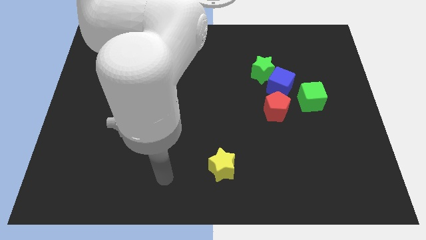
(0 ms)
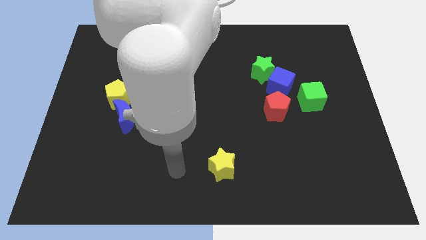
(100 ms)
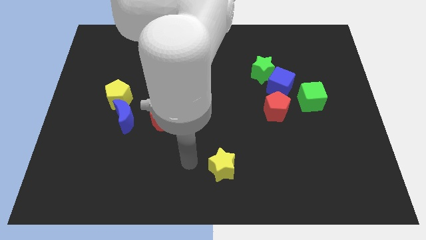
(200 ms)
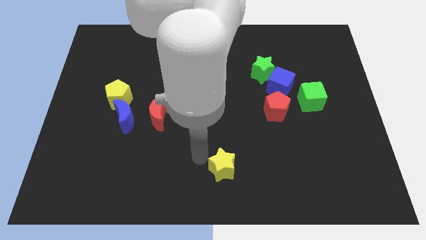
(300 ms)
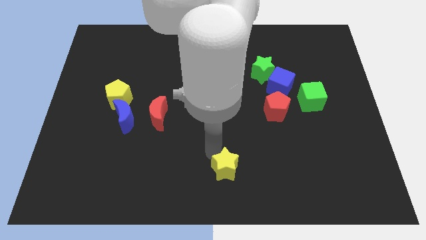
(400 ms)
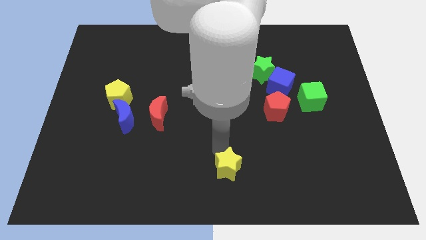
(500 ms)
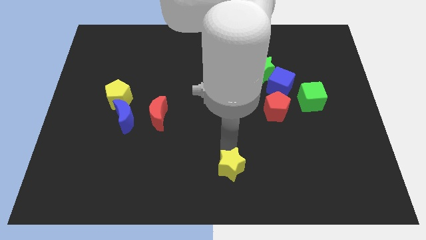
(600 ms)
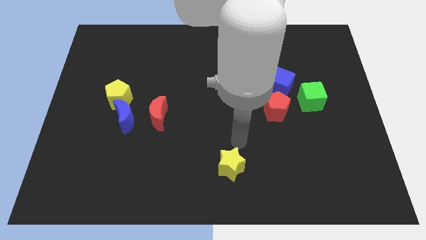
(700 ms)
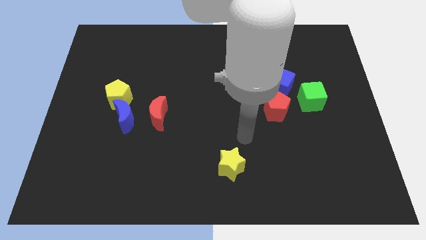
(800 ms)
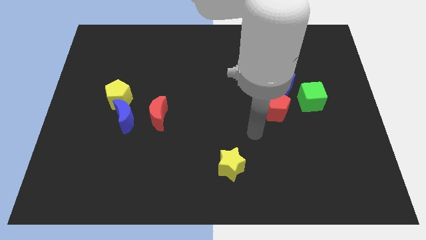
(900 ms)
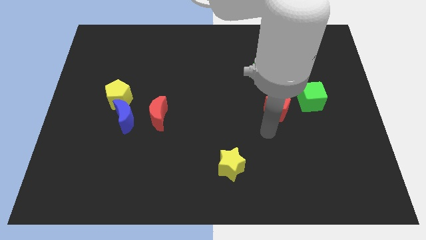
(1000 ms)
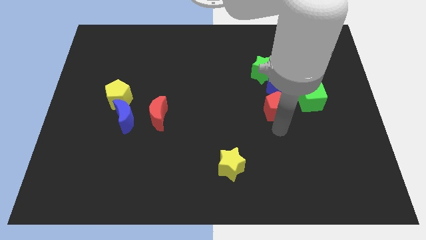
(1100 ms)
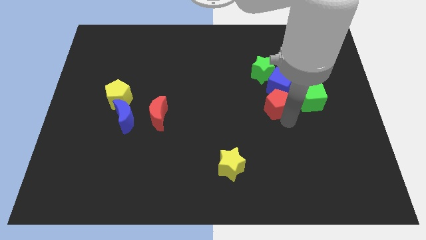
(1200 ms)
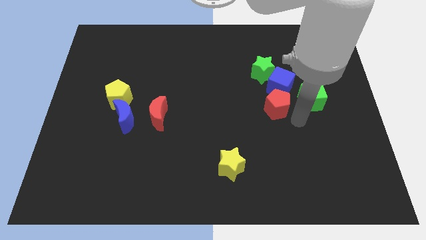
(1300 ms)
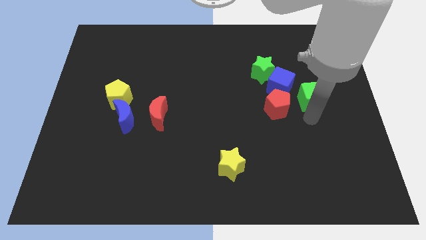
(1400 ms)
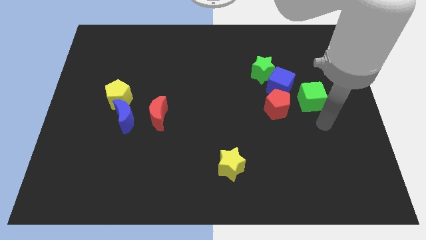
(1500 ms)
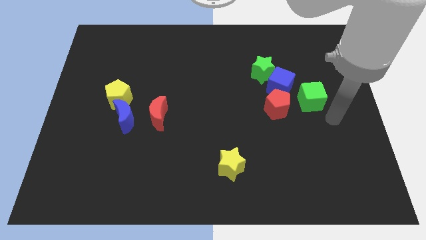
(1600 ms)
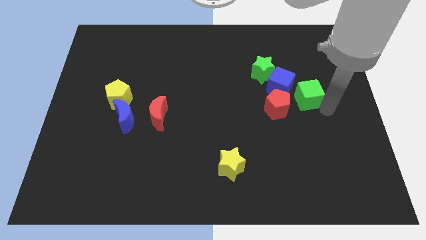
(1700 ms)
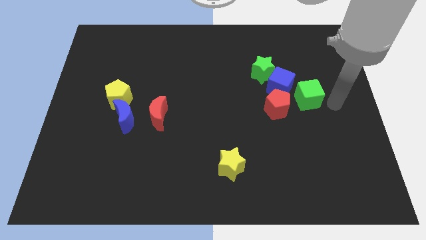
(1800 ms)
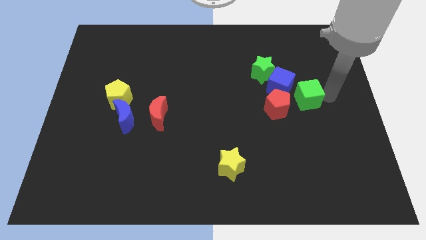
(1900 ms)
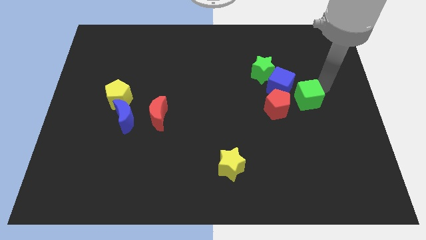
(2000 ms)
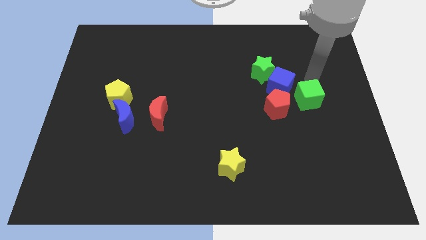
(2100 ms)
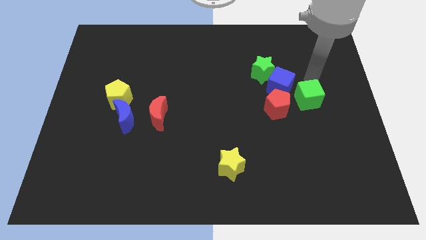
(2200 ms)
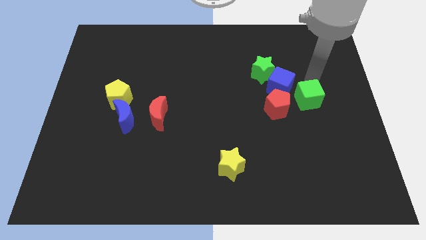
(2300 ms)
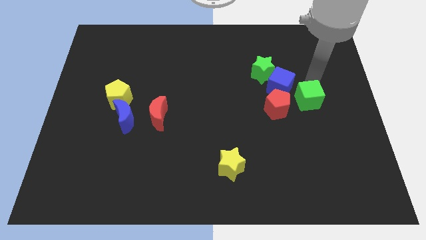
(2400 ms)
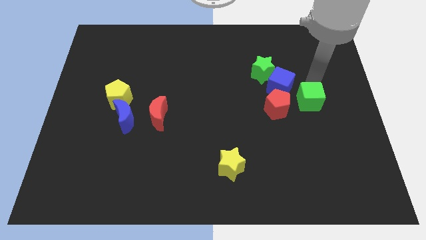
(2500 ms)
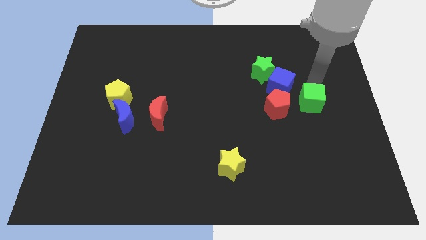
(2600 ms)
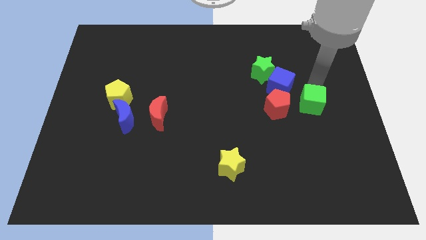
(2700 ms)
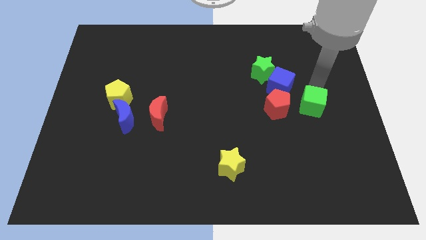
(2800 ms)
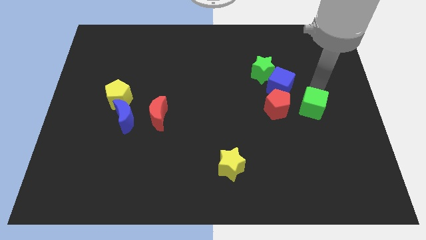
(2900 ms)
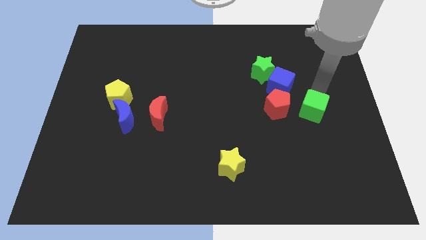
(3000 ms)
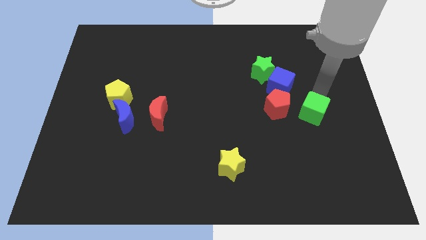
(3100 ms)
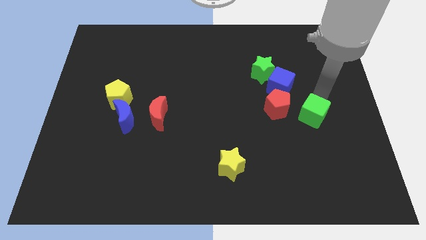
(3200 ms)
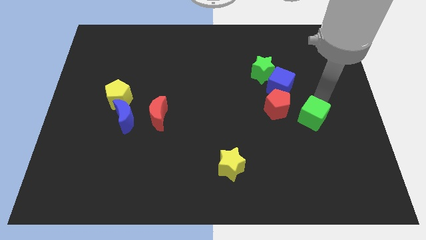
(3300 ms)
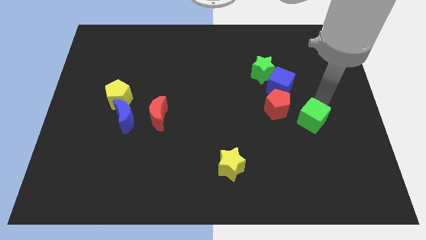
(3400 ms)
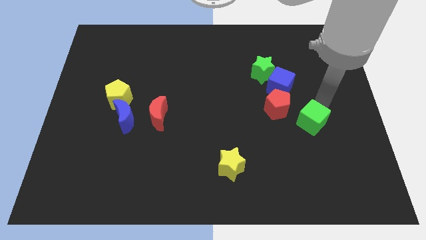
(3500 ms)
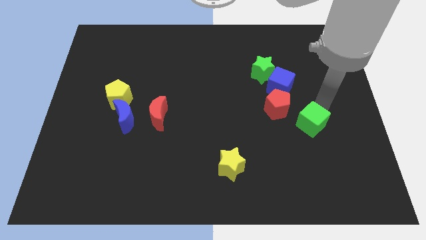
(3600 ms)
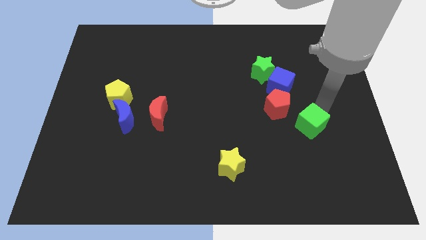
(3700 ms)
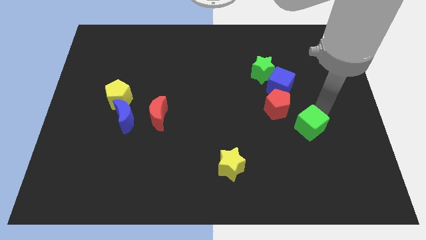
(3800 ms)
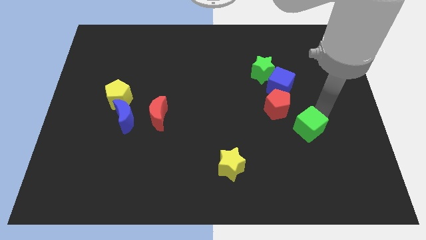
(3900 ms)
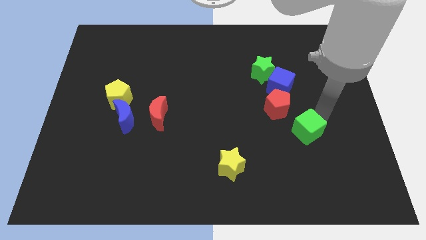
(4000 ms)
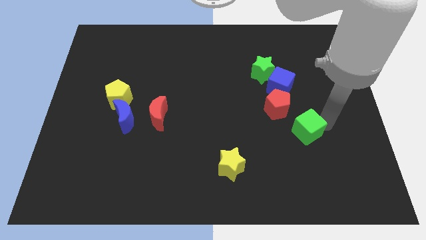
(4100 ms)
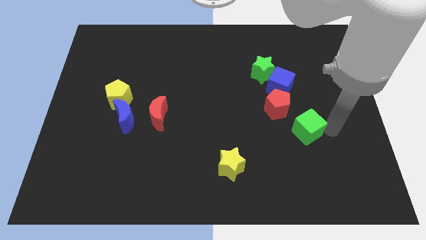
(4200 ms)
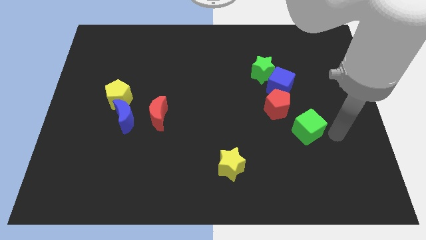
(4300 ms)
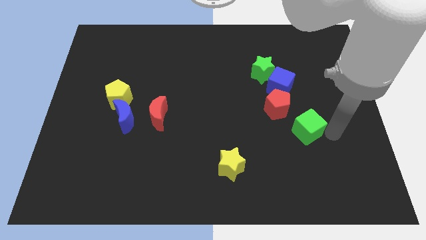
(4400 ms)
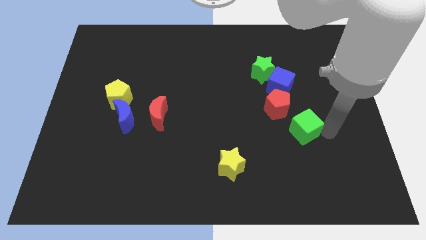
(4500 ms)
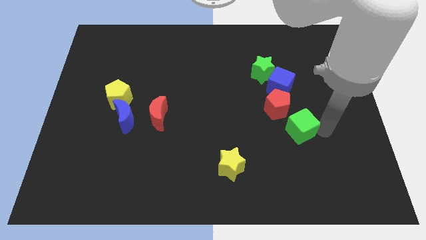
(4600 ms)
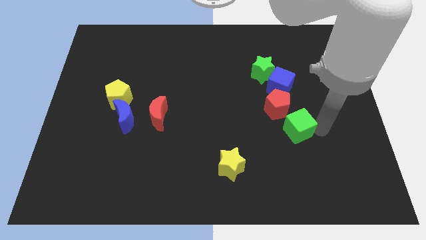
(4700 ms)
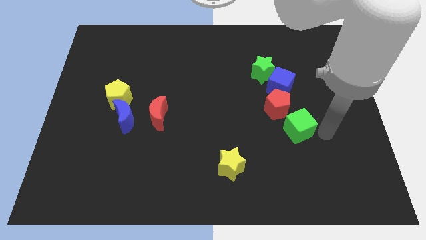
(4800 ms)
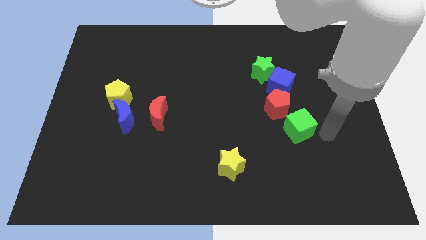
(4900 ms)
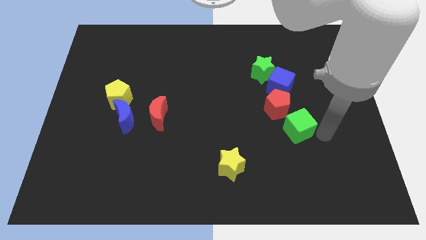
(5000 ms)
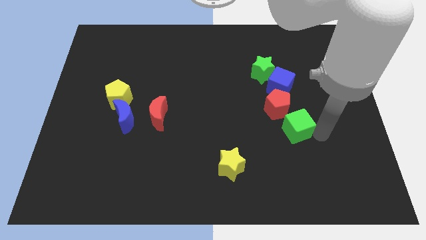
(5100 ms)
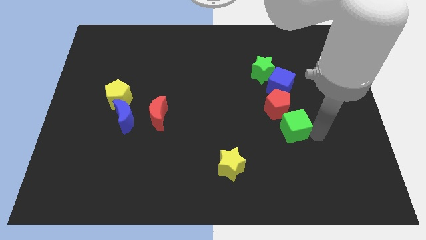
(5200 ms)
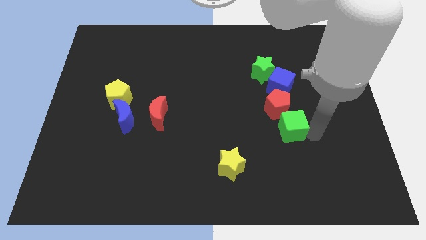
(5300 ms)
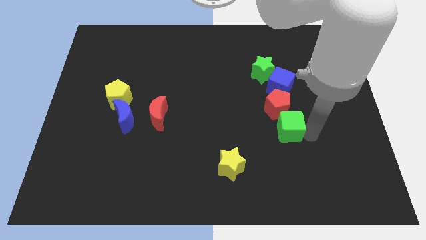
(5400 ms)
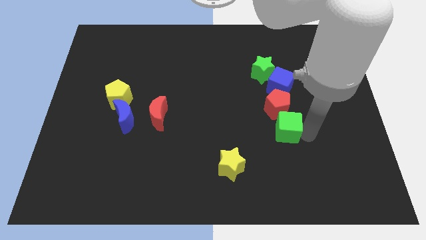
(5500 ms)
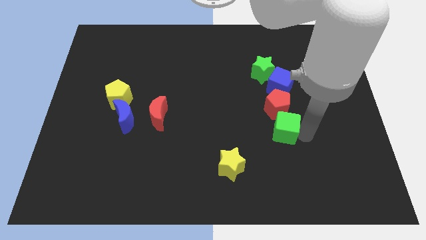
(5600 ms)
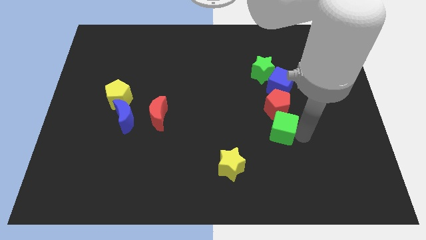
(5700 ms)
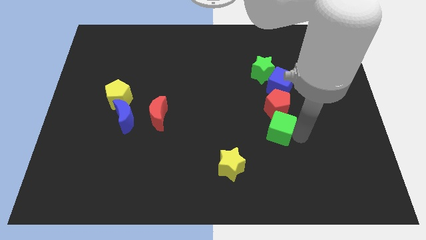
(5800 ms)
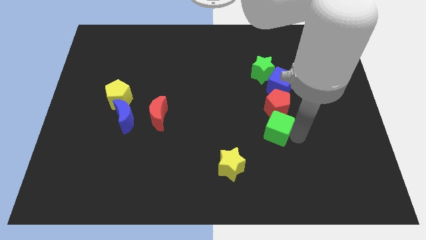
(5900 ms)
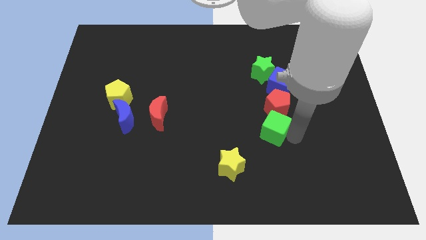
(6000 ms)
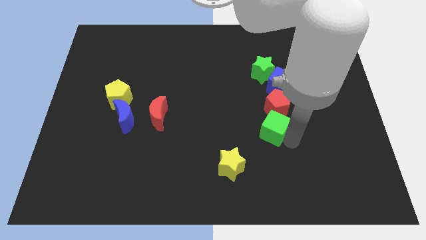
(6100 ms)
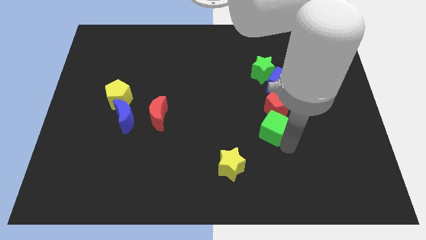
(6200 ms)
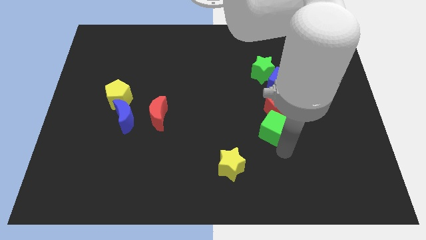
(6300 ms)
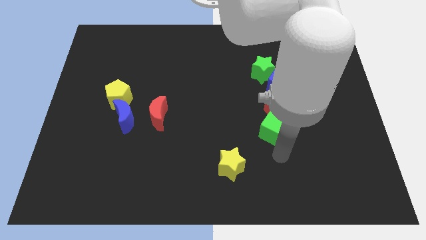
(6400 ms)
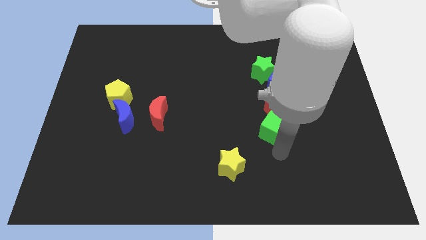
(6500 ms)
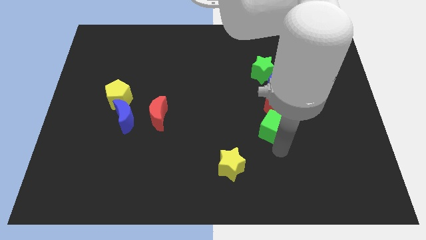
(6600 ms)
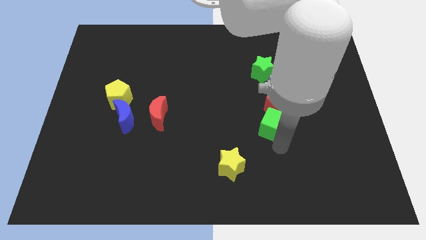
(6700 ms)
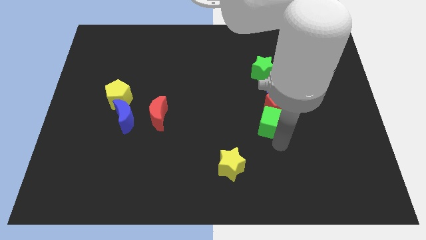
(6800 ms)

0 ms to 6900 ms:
move the green cube to the bottom of the green star
